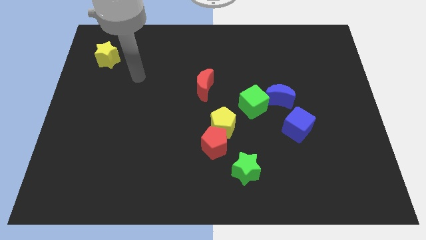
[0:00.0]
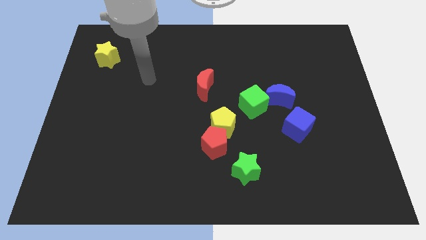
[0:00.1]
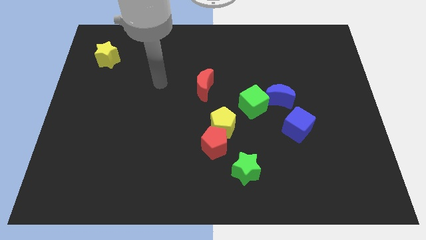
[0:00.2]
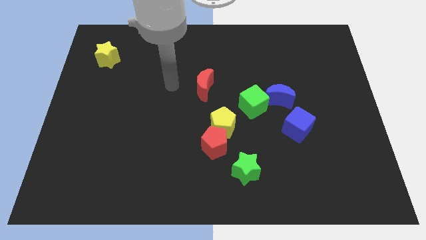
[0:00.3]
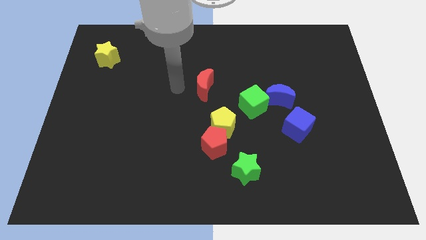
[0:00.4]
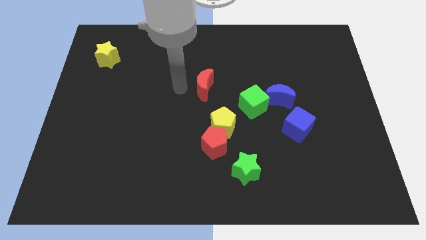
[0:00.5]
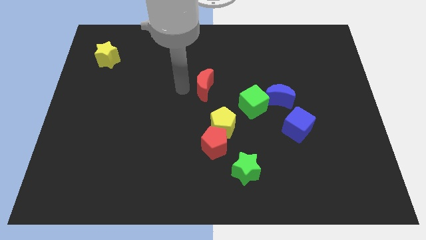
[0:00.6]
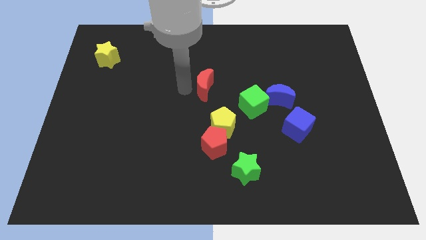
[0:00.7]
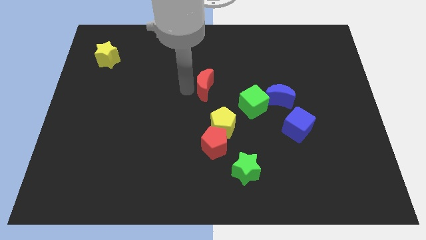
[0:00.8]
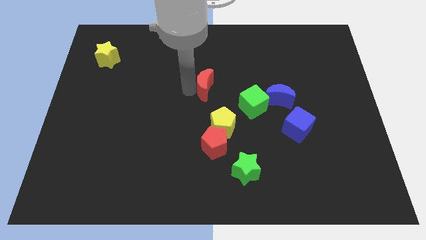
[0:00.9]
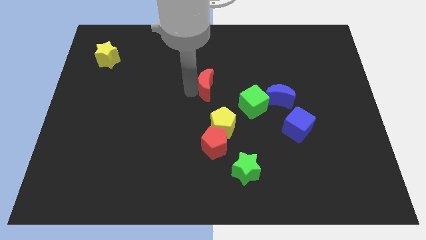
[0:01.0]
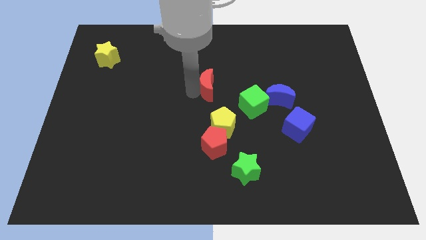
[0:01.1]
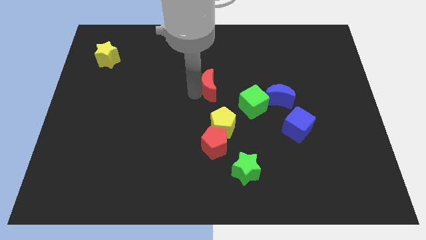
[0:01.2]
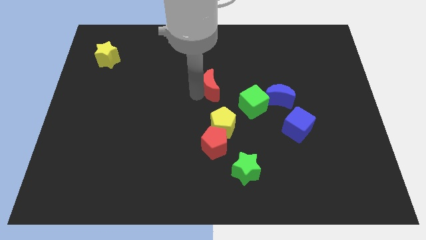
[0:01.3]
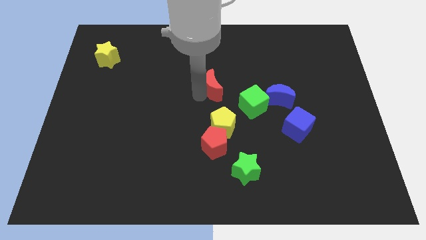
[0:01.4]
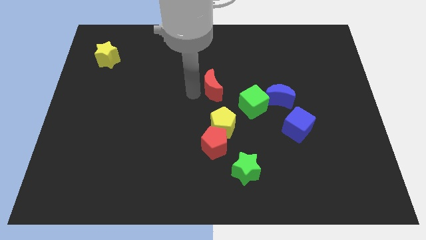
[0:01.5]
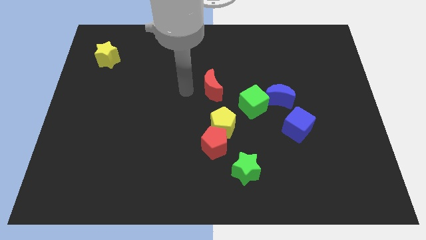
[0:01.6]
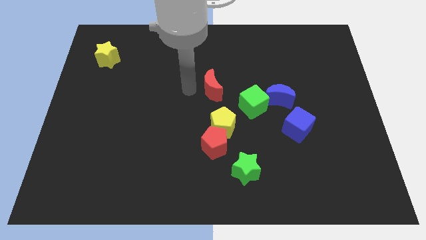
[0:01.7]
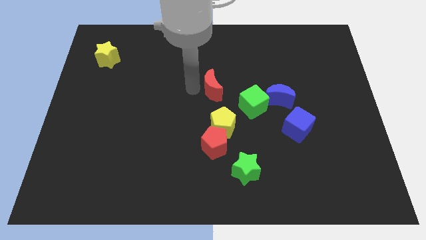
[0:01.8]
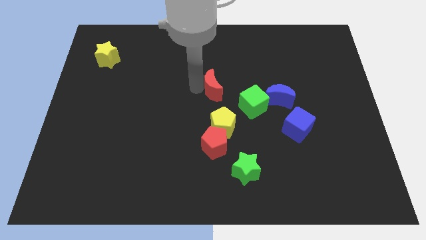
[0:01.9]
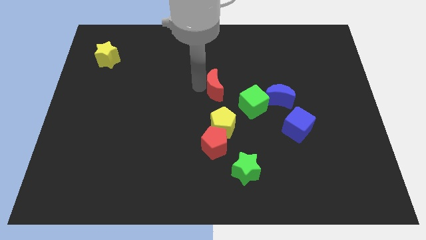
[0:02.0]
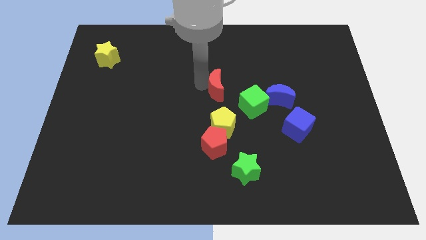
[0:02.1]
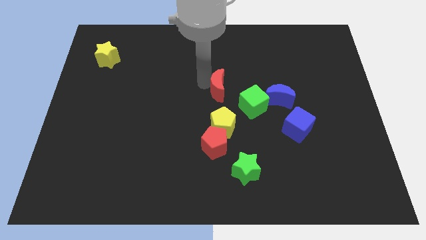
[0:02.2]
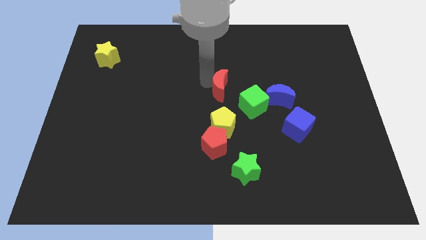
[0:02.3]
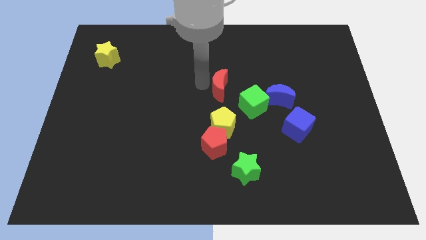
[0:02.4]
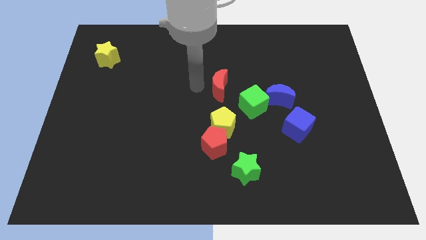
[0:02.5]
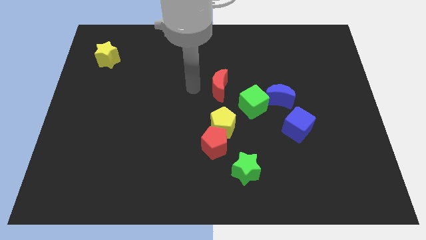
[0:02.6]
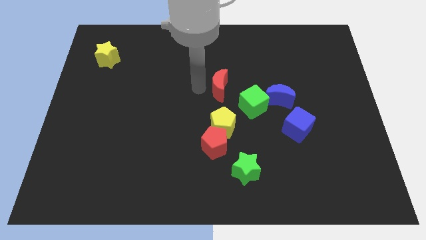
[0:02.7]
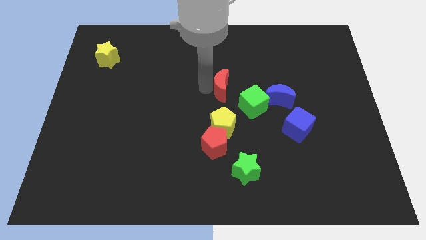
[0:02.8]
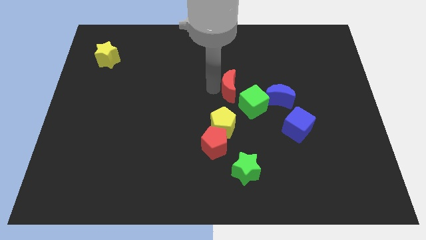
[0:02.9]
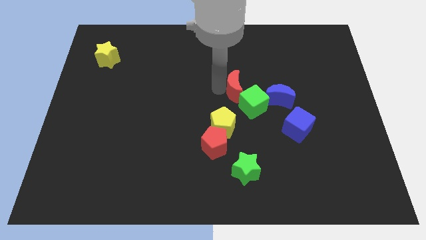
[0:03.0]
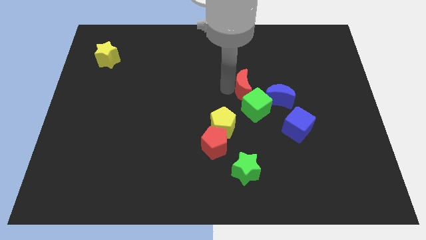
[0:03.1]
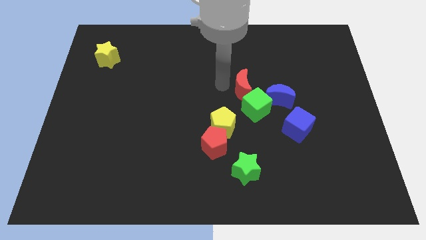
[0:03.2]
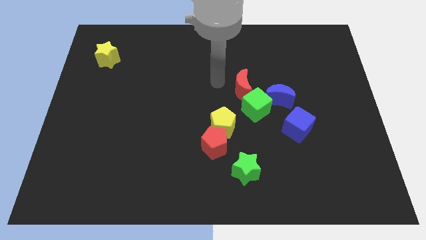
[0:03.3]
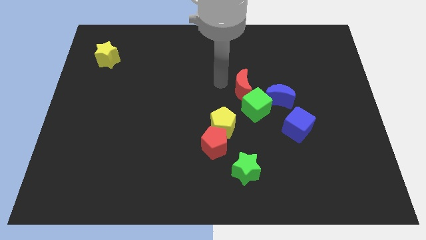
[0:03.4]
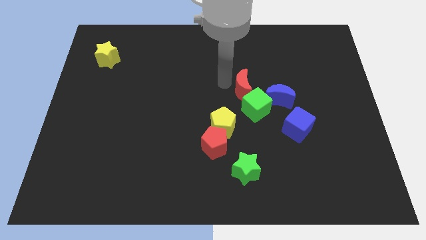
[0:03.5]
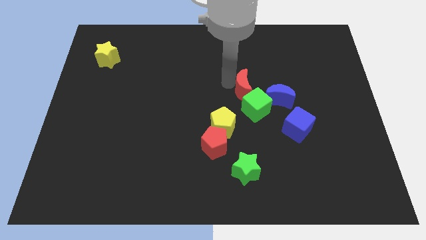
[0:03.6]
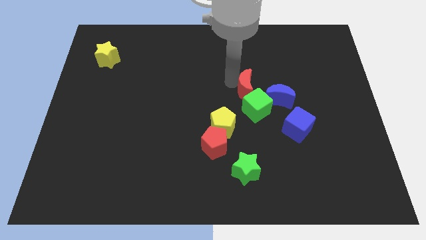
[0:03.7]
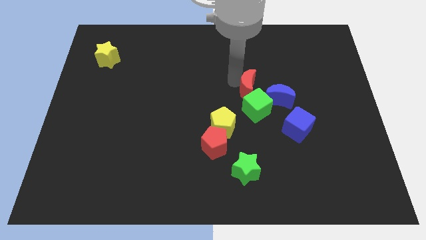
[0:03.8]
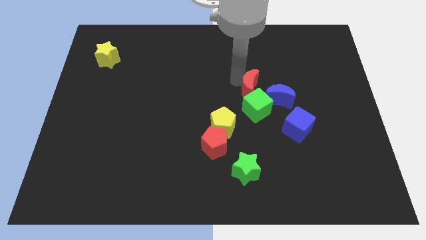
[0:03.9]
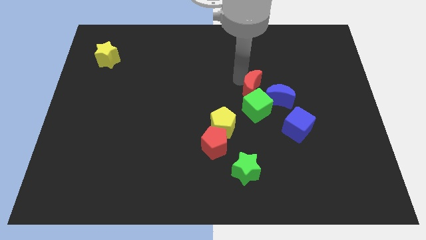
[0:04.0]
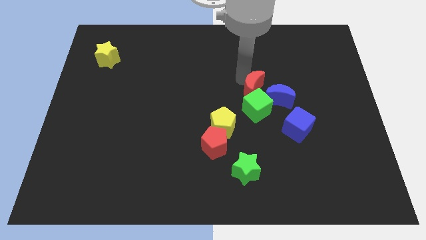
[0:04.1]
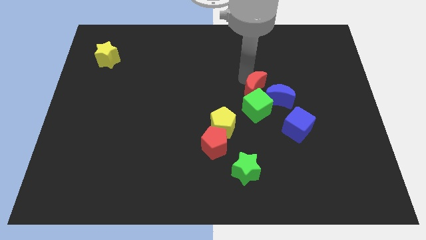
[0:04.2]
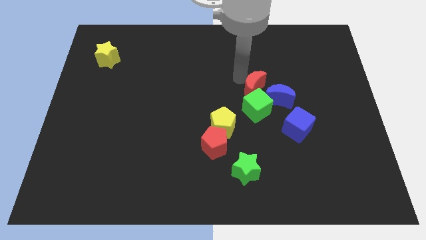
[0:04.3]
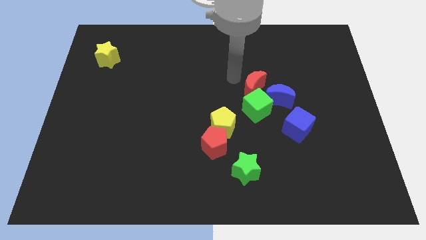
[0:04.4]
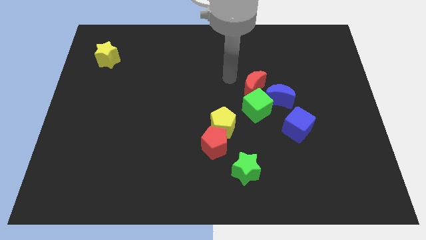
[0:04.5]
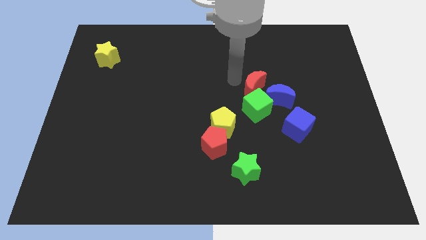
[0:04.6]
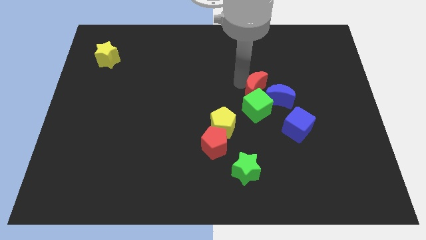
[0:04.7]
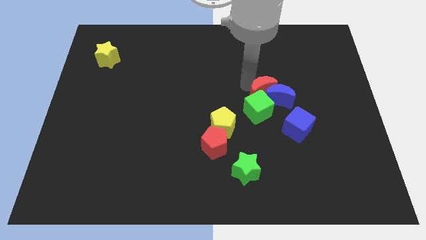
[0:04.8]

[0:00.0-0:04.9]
put the red moon towards the blue moon

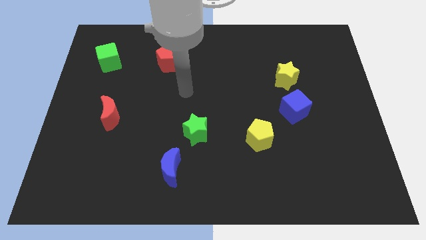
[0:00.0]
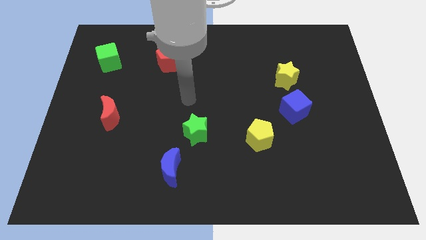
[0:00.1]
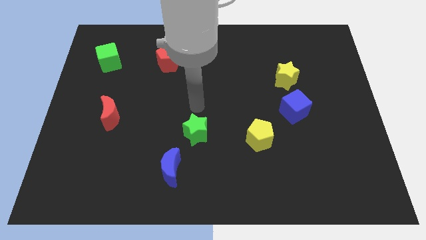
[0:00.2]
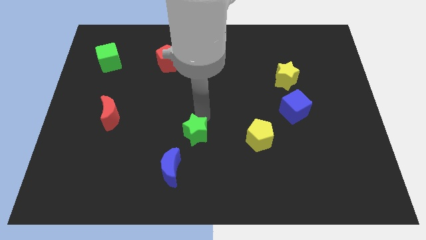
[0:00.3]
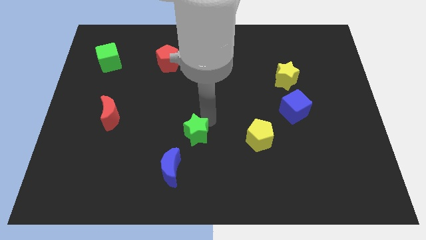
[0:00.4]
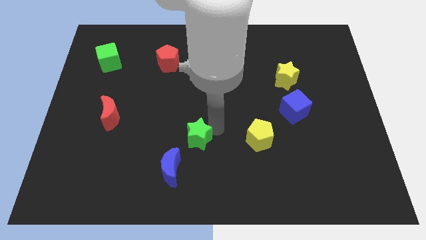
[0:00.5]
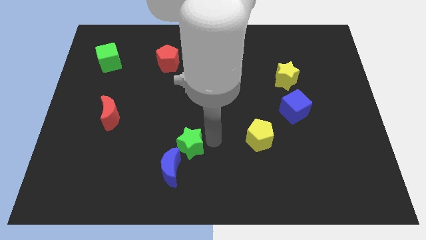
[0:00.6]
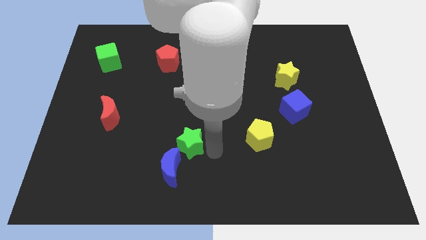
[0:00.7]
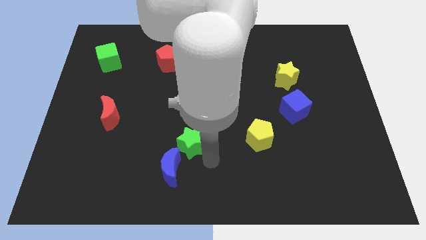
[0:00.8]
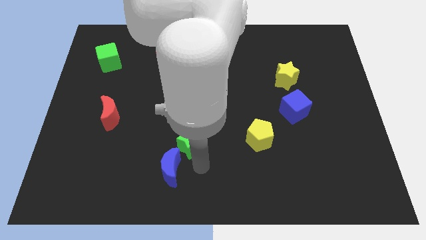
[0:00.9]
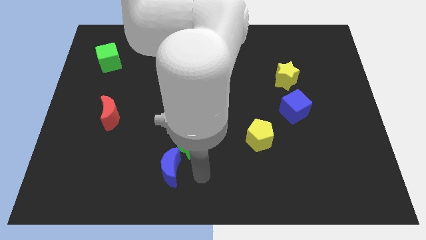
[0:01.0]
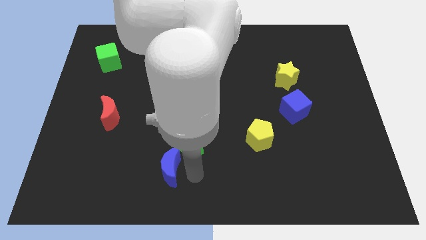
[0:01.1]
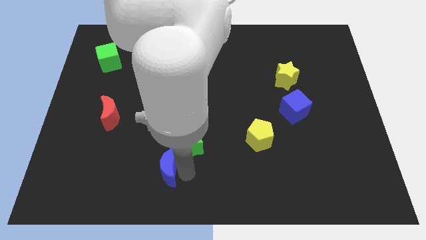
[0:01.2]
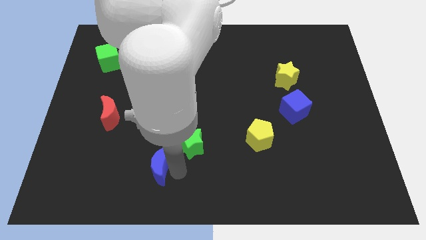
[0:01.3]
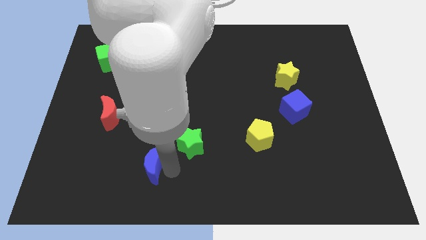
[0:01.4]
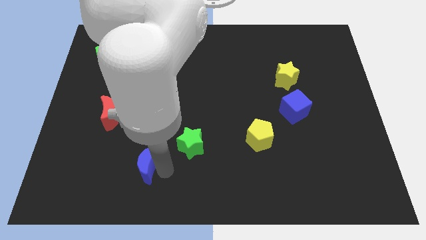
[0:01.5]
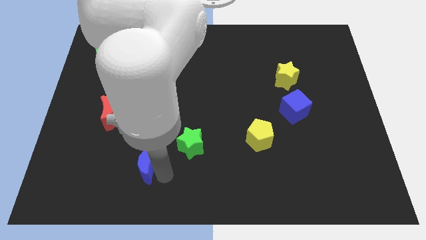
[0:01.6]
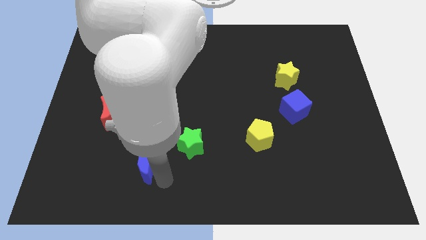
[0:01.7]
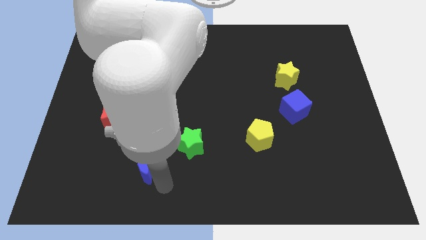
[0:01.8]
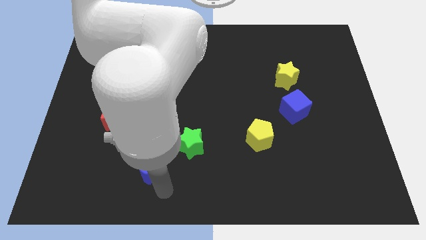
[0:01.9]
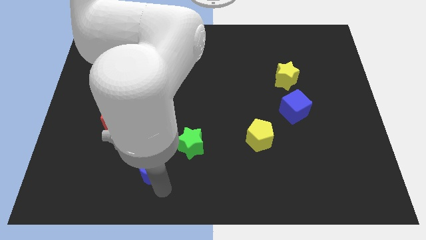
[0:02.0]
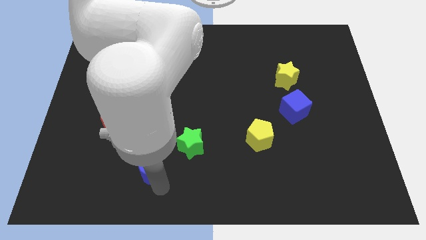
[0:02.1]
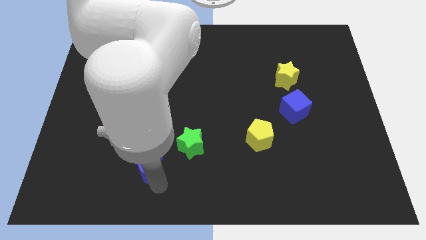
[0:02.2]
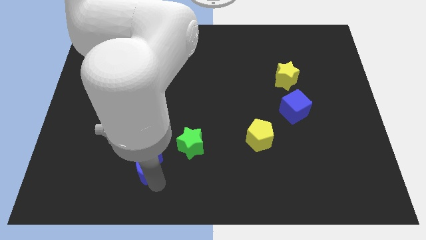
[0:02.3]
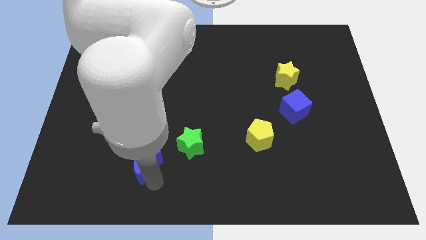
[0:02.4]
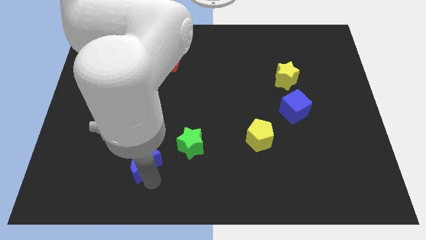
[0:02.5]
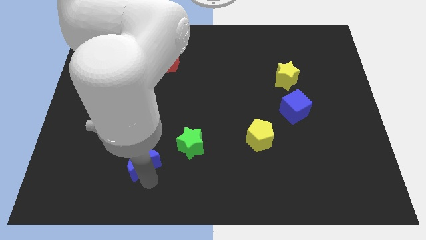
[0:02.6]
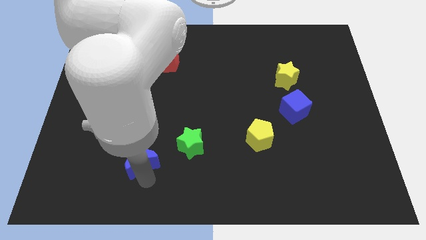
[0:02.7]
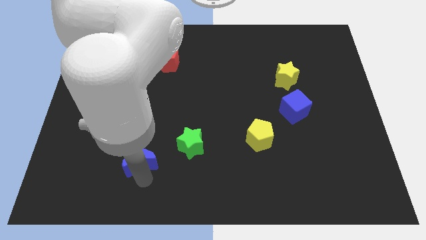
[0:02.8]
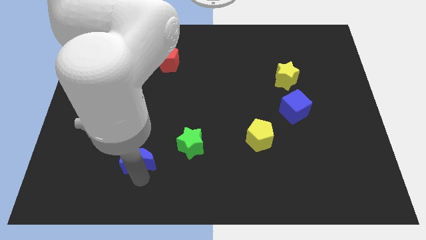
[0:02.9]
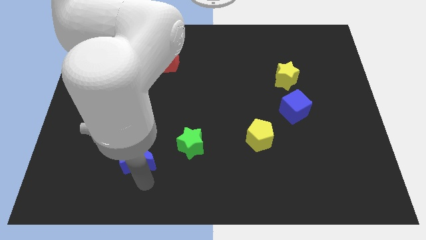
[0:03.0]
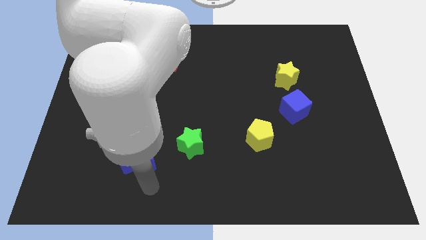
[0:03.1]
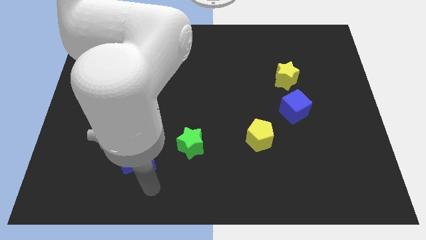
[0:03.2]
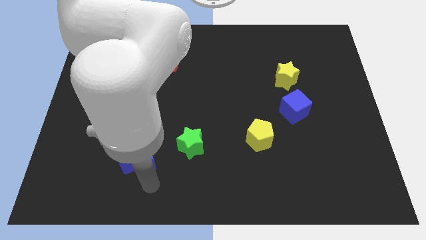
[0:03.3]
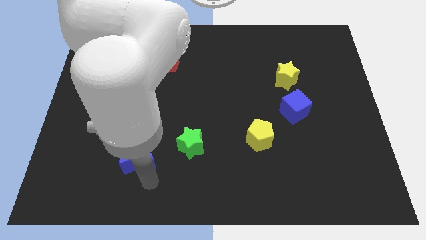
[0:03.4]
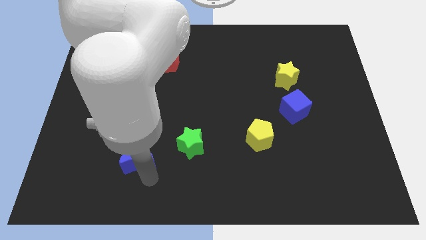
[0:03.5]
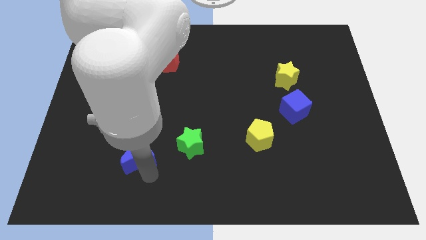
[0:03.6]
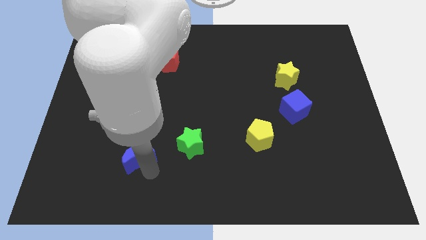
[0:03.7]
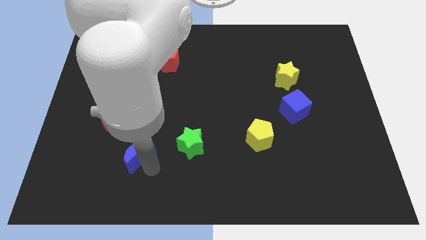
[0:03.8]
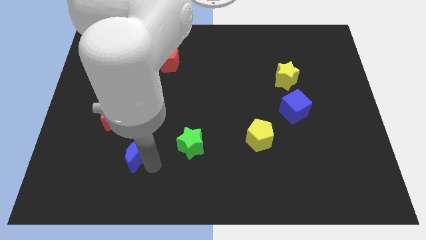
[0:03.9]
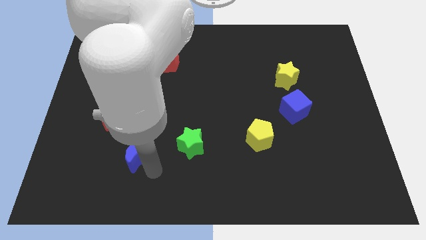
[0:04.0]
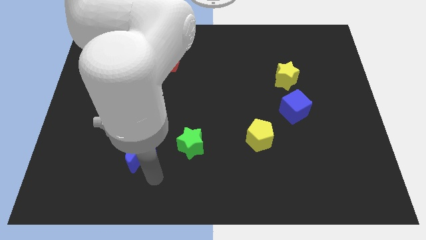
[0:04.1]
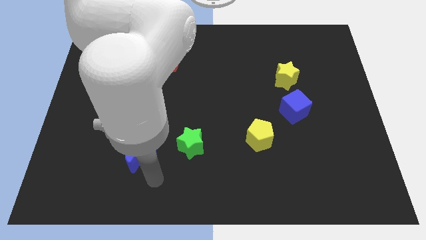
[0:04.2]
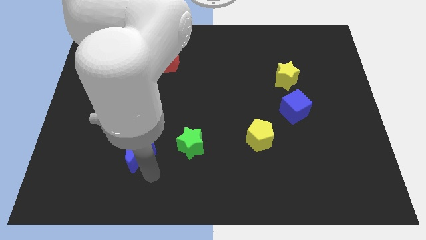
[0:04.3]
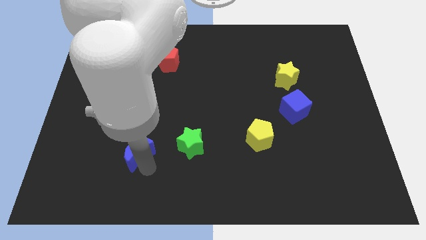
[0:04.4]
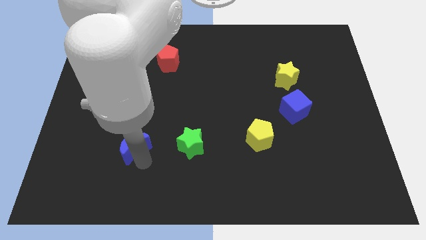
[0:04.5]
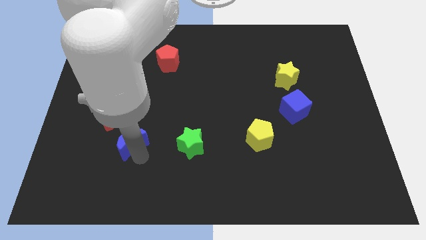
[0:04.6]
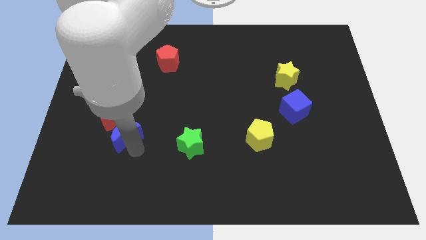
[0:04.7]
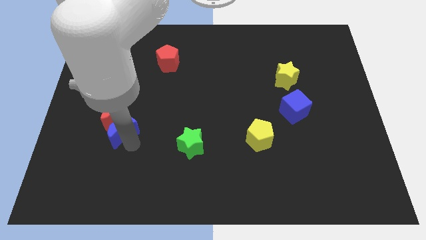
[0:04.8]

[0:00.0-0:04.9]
put the blue moon to the red moon
